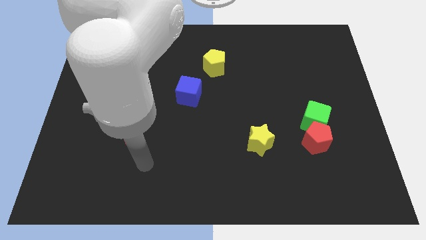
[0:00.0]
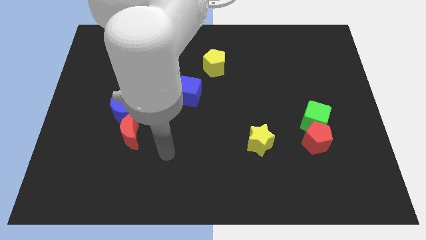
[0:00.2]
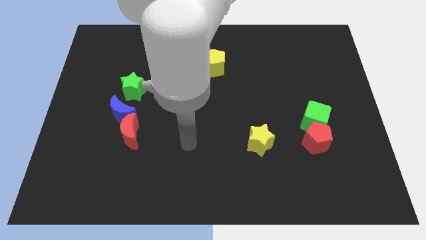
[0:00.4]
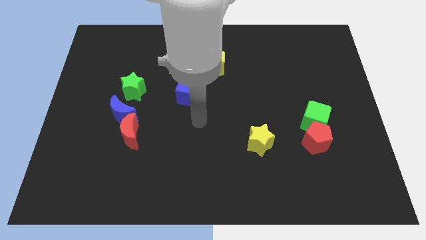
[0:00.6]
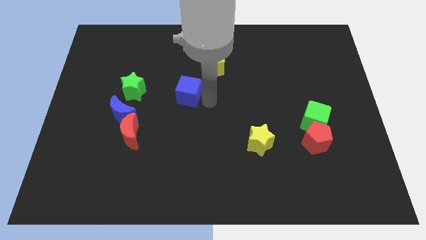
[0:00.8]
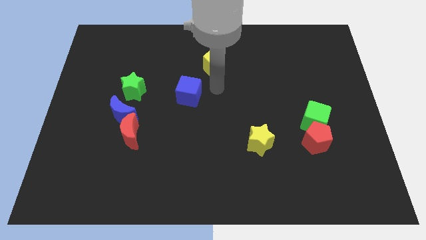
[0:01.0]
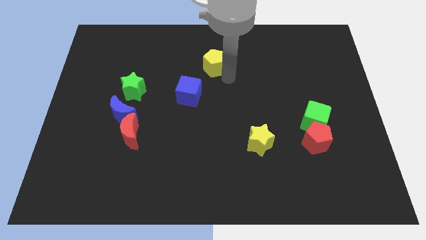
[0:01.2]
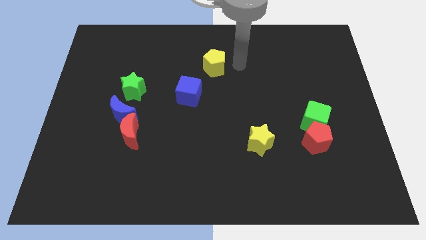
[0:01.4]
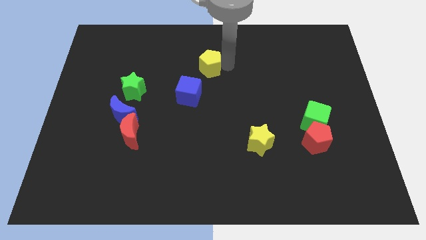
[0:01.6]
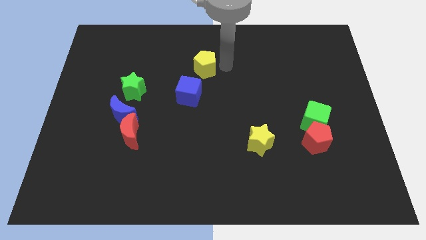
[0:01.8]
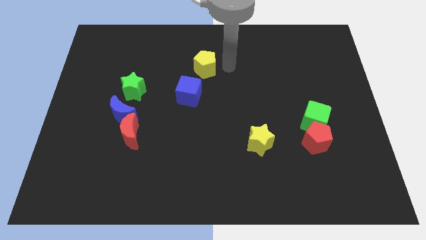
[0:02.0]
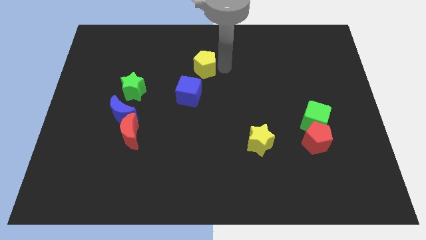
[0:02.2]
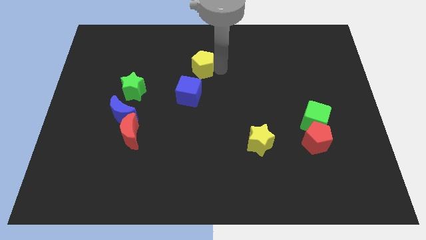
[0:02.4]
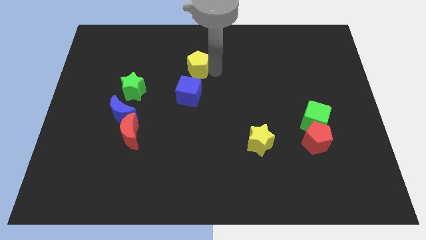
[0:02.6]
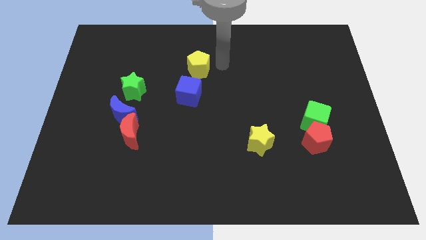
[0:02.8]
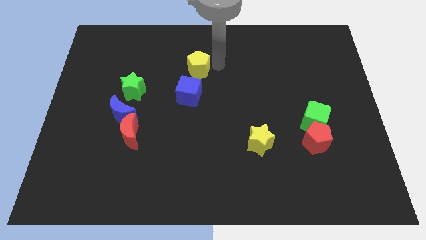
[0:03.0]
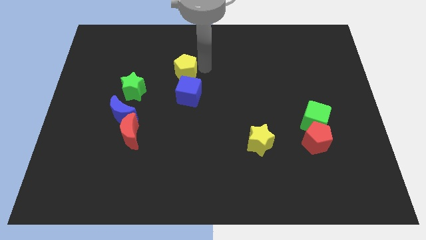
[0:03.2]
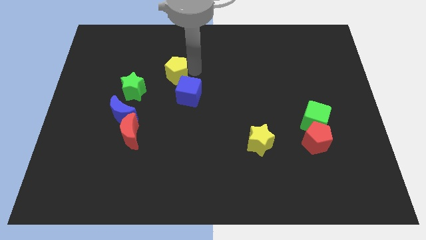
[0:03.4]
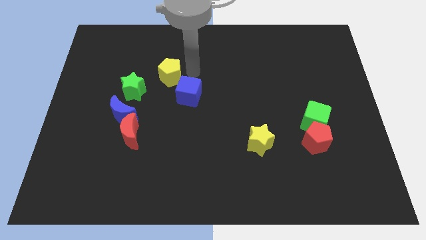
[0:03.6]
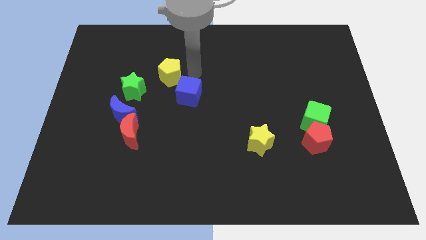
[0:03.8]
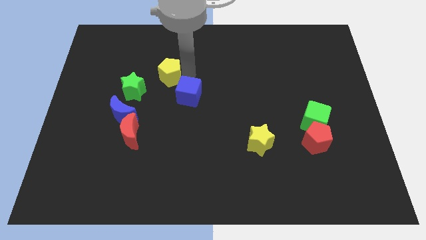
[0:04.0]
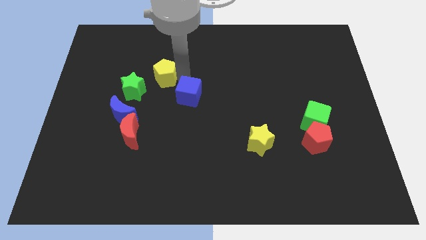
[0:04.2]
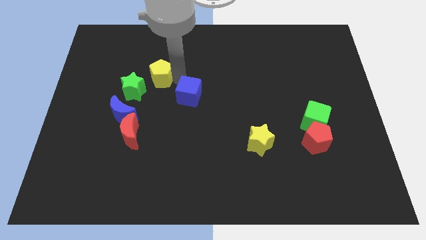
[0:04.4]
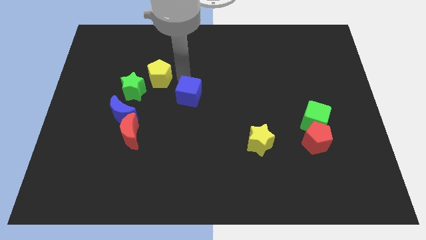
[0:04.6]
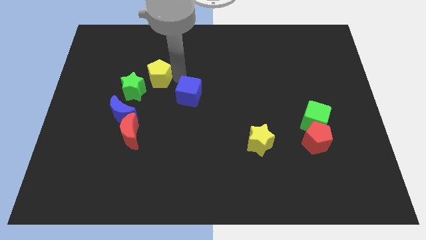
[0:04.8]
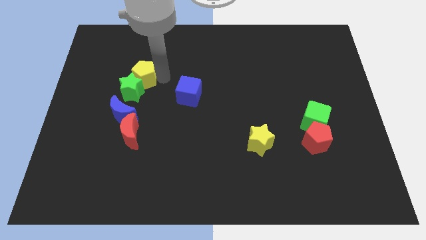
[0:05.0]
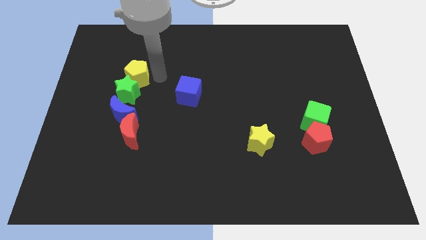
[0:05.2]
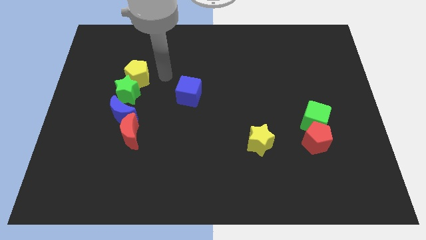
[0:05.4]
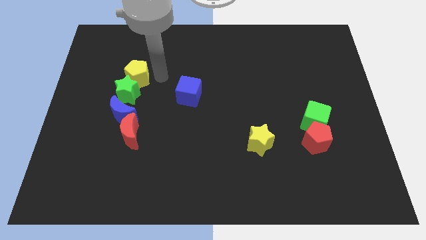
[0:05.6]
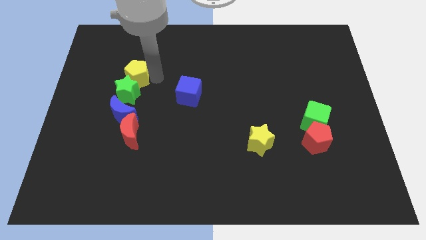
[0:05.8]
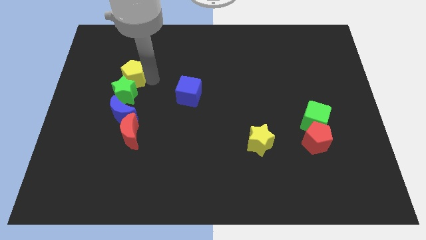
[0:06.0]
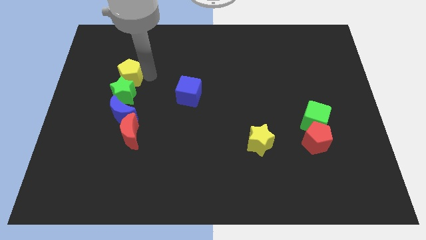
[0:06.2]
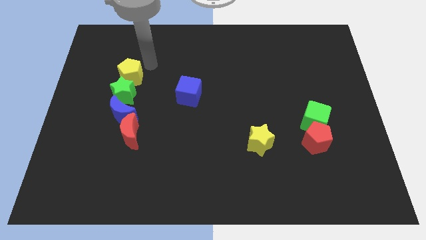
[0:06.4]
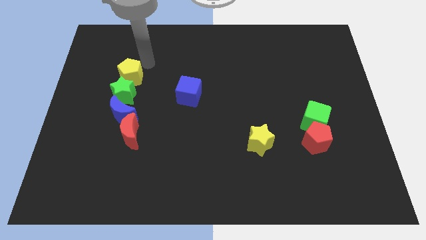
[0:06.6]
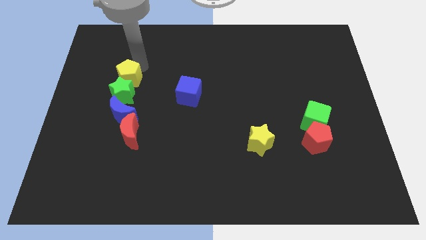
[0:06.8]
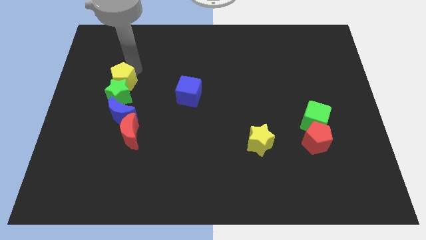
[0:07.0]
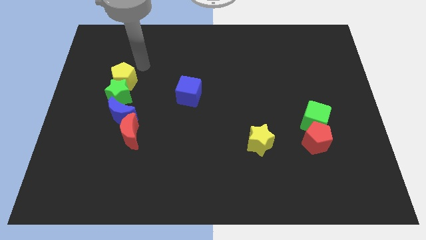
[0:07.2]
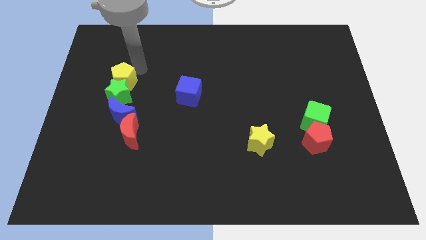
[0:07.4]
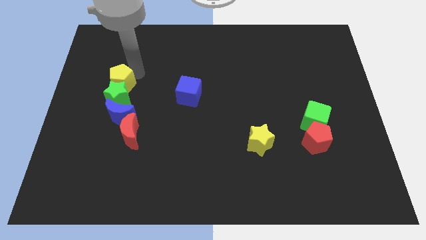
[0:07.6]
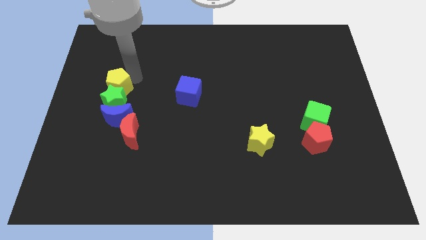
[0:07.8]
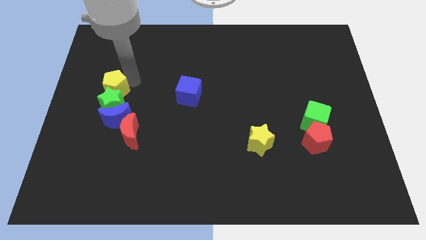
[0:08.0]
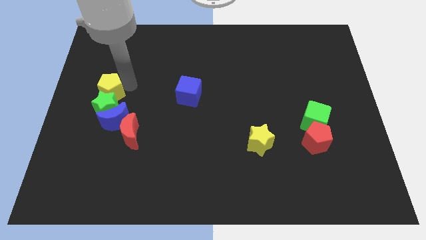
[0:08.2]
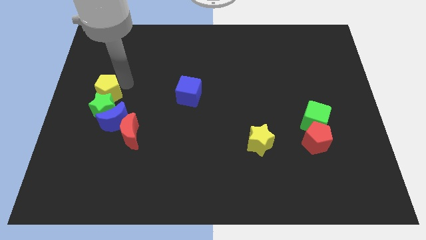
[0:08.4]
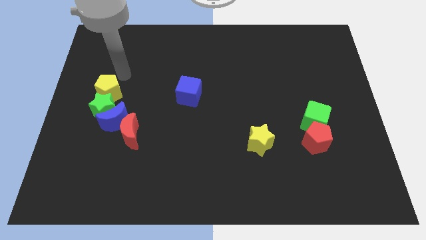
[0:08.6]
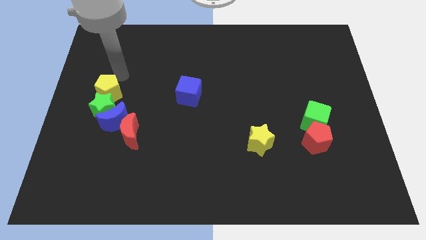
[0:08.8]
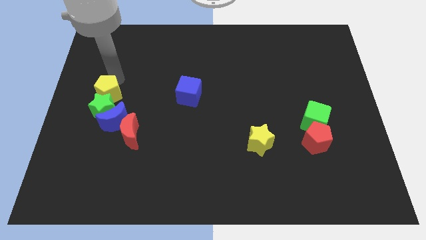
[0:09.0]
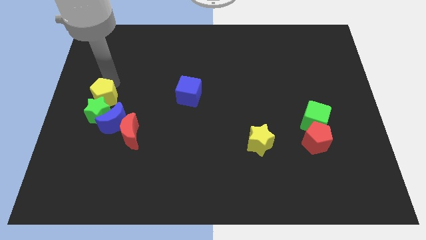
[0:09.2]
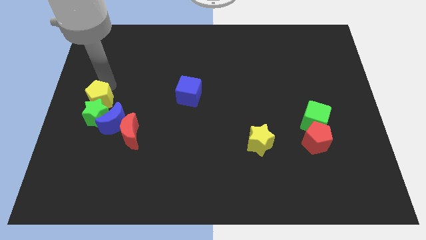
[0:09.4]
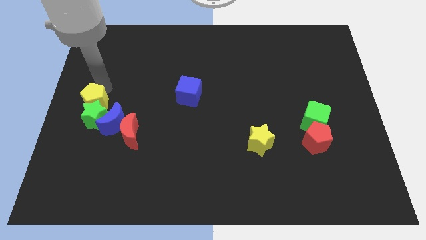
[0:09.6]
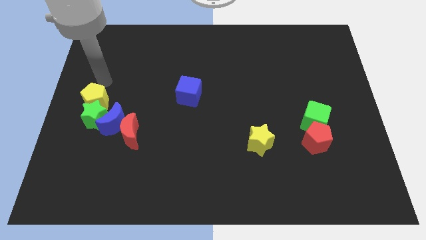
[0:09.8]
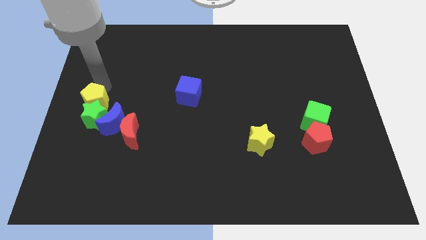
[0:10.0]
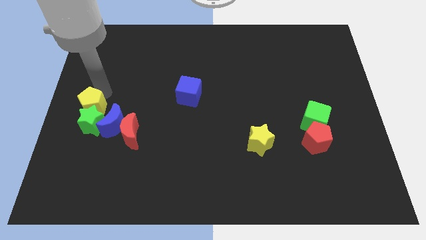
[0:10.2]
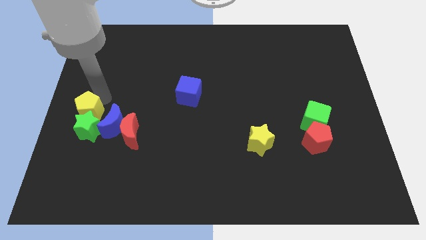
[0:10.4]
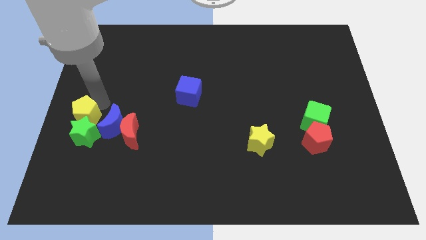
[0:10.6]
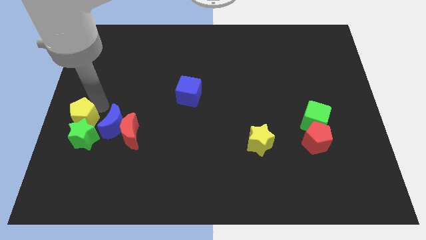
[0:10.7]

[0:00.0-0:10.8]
put the yellow pentagon to the left of the red moon

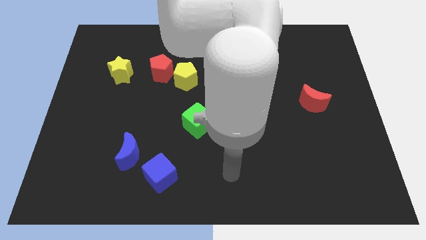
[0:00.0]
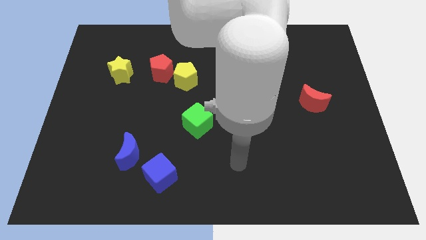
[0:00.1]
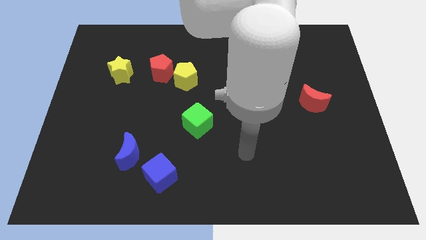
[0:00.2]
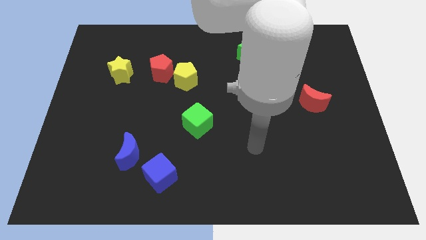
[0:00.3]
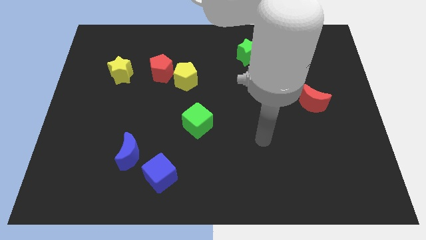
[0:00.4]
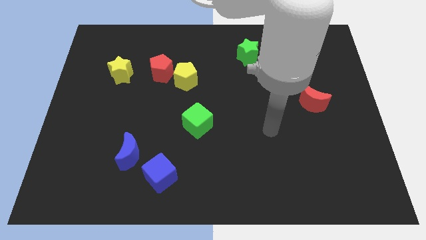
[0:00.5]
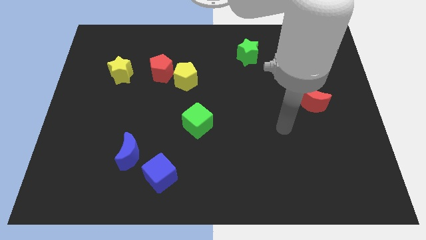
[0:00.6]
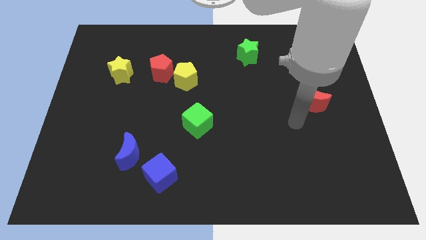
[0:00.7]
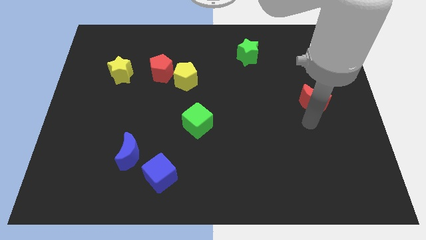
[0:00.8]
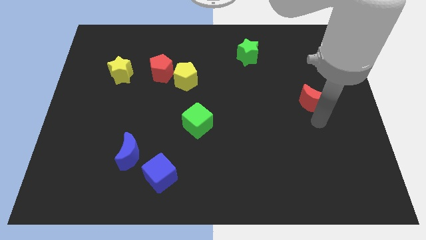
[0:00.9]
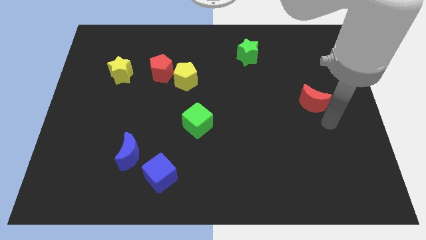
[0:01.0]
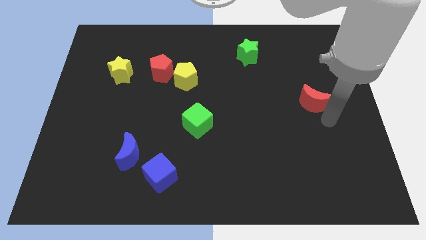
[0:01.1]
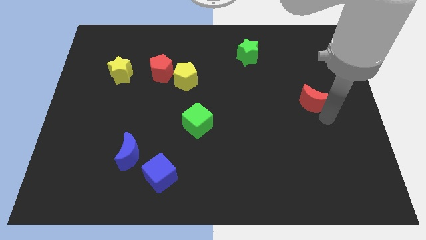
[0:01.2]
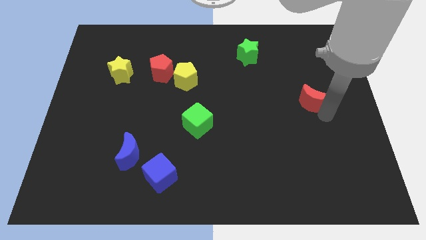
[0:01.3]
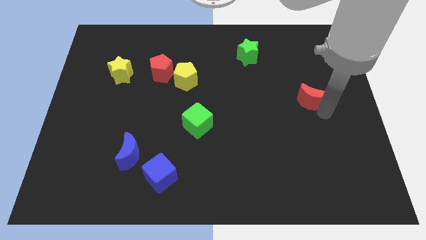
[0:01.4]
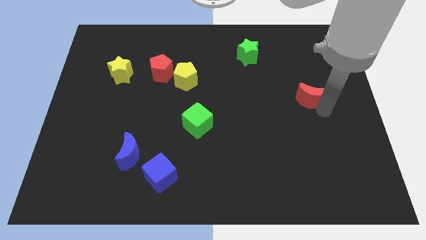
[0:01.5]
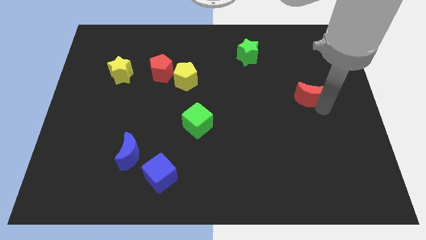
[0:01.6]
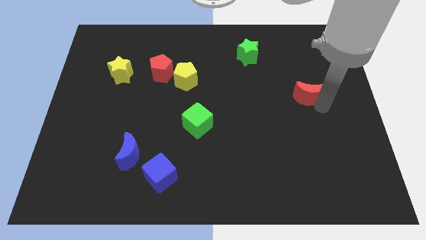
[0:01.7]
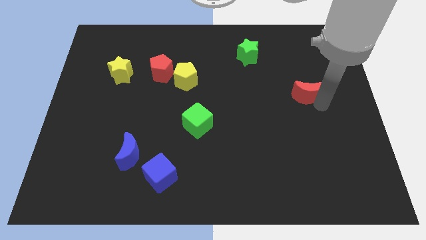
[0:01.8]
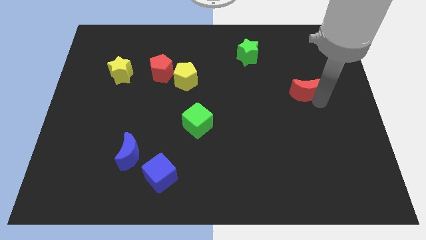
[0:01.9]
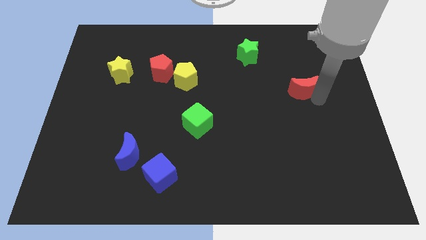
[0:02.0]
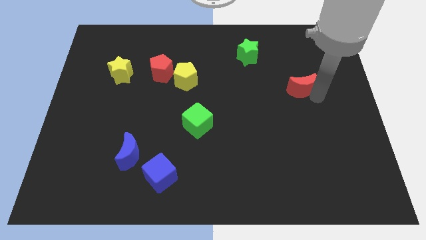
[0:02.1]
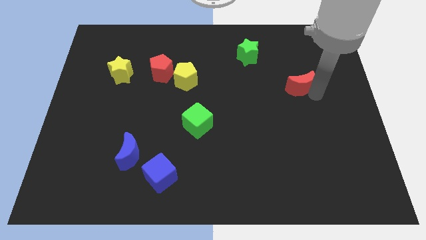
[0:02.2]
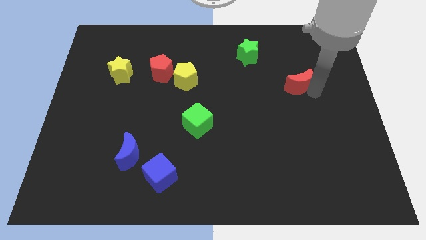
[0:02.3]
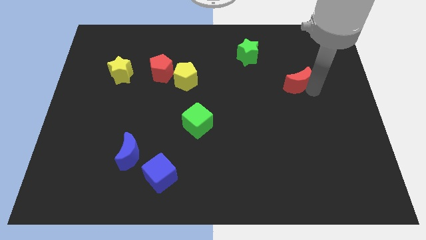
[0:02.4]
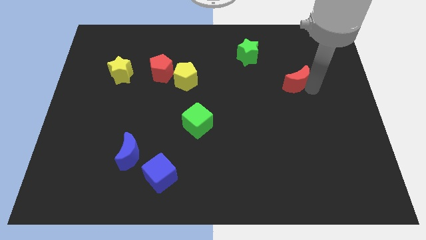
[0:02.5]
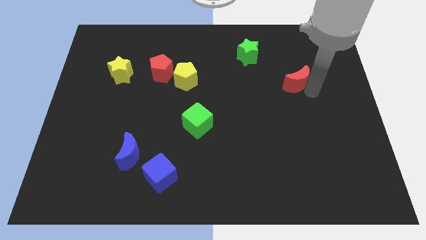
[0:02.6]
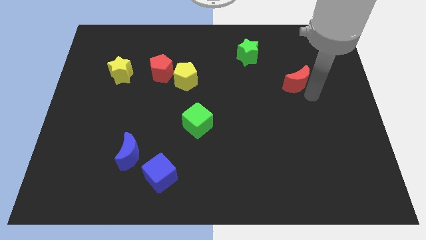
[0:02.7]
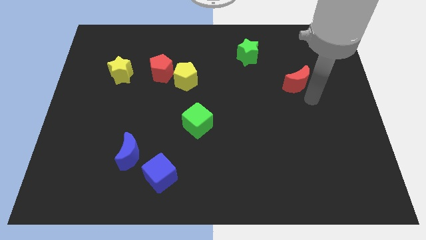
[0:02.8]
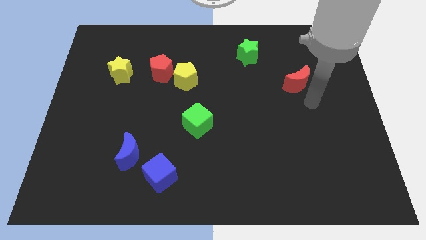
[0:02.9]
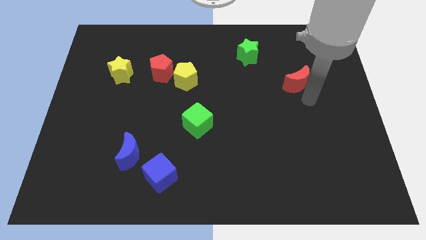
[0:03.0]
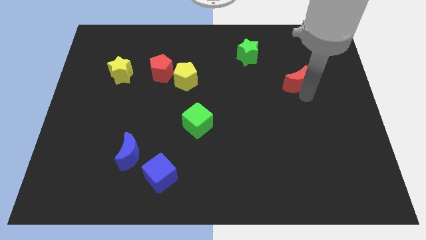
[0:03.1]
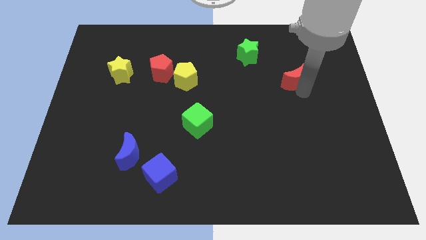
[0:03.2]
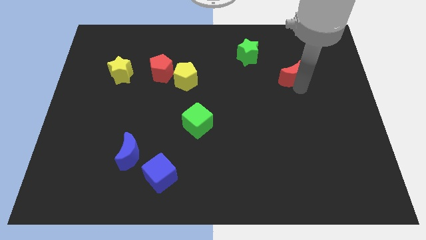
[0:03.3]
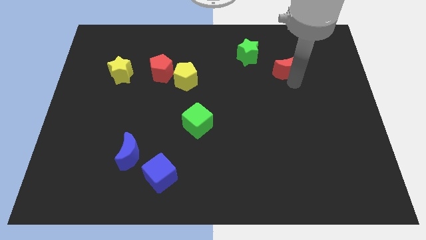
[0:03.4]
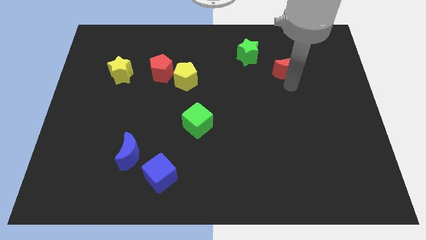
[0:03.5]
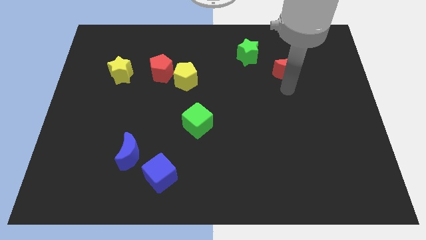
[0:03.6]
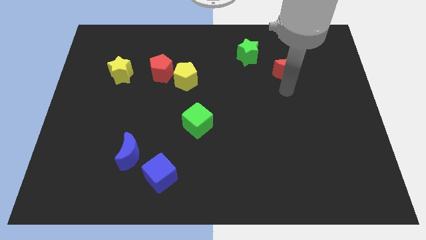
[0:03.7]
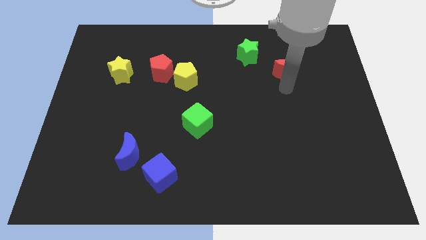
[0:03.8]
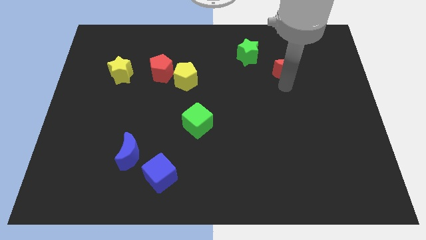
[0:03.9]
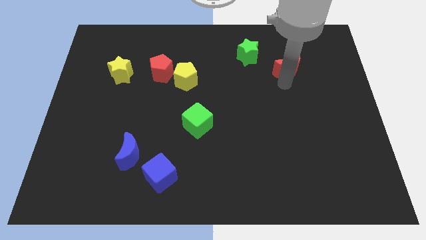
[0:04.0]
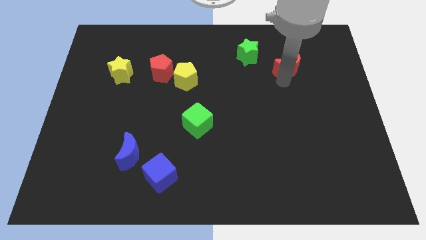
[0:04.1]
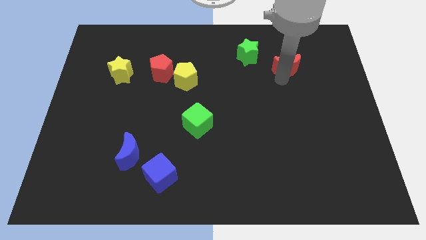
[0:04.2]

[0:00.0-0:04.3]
push the red moon right of the green star
